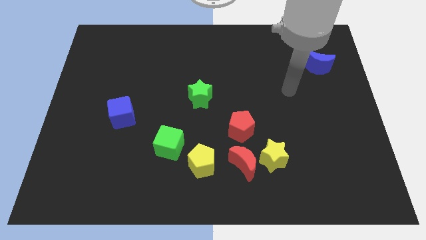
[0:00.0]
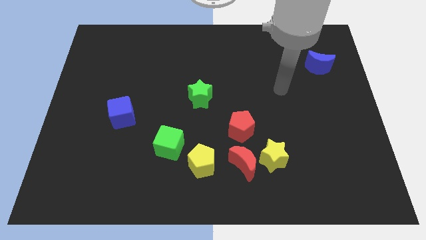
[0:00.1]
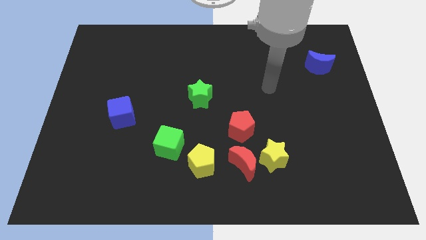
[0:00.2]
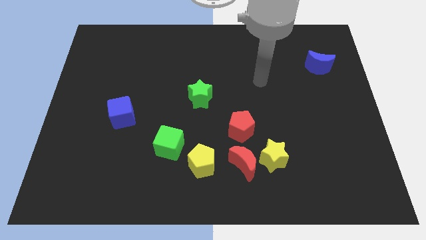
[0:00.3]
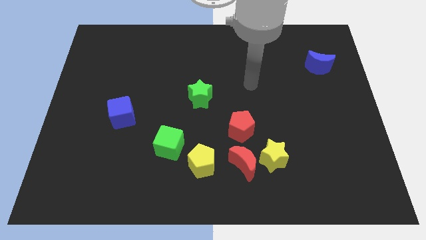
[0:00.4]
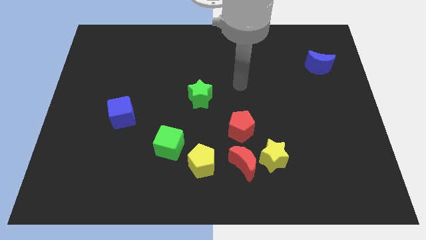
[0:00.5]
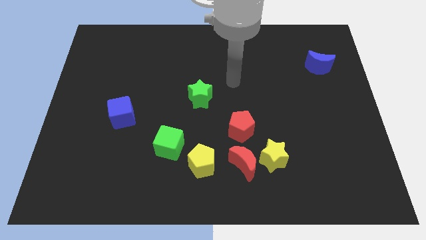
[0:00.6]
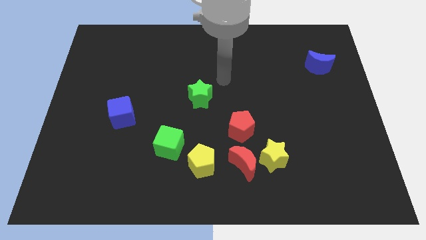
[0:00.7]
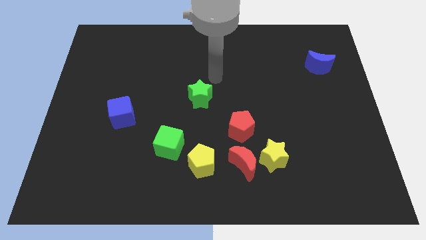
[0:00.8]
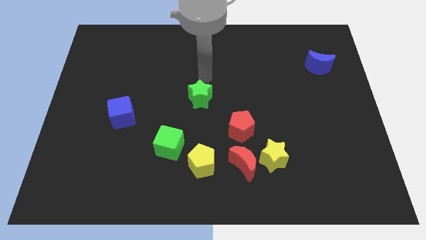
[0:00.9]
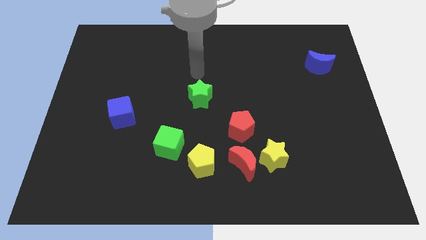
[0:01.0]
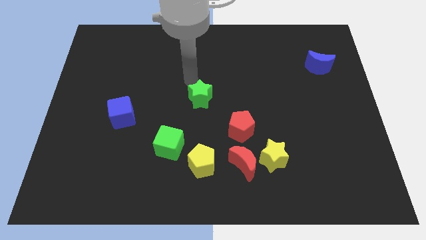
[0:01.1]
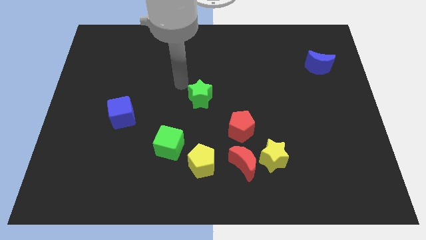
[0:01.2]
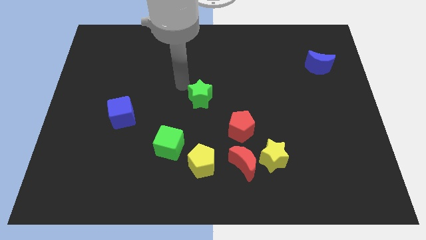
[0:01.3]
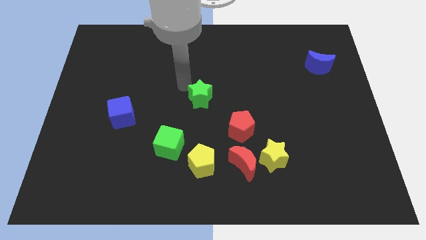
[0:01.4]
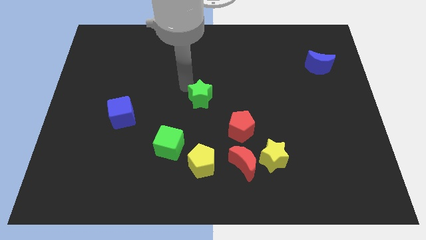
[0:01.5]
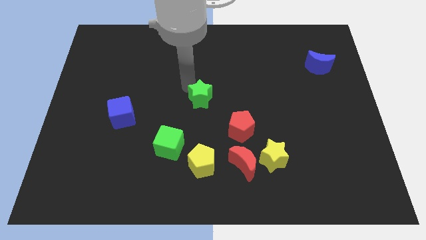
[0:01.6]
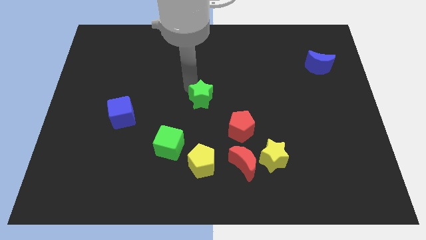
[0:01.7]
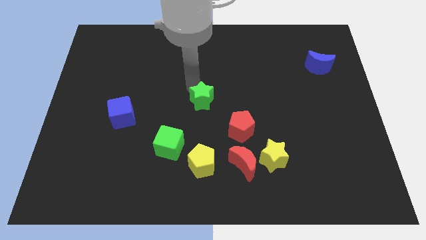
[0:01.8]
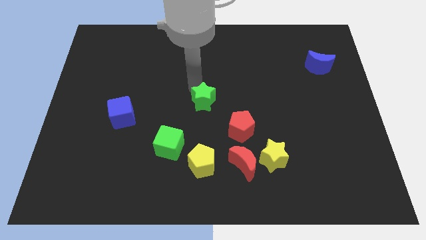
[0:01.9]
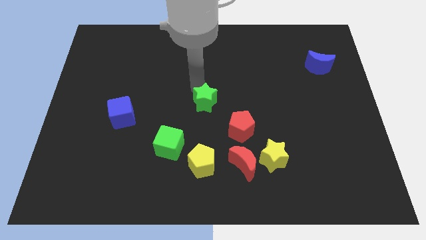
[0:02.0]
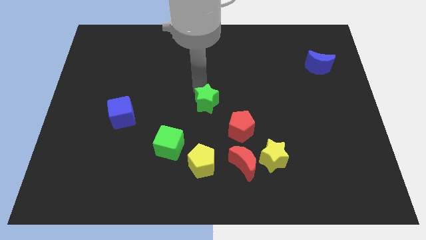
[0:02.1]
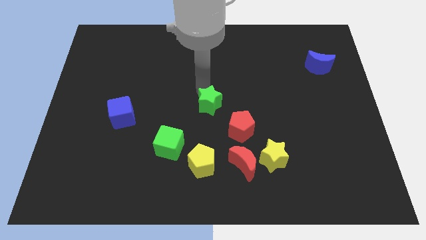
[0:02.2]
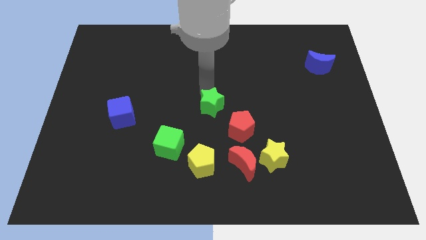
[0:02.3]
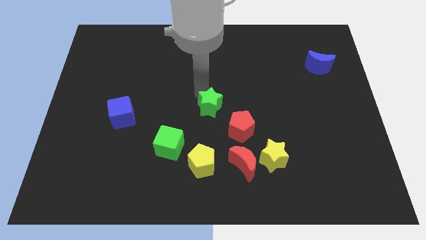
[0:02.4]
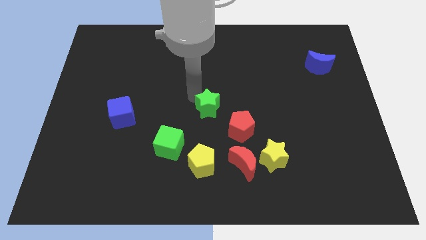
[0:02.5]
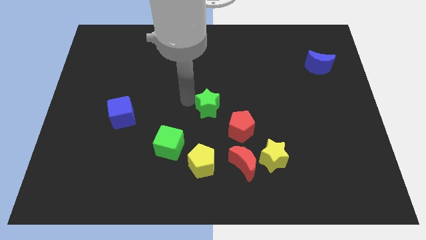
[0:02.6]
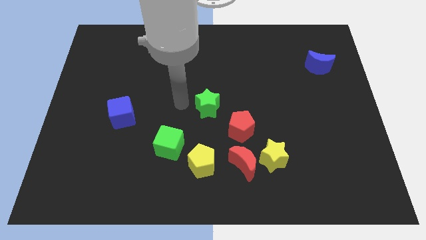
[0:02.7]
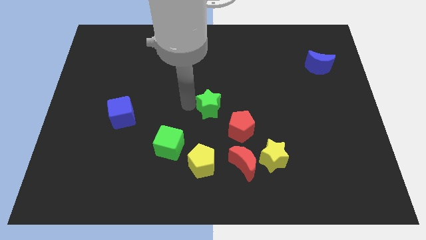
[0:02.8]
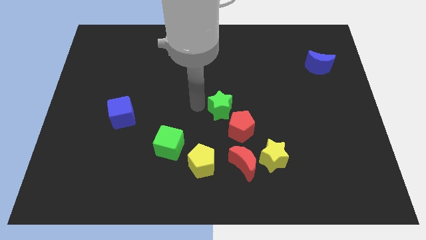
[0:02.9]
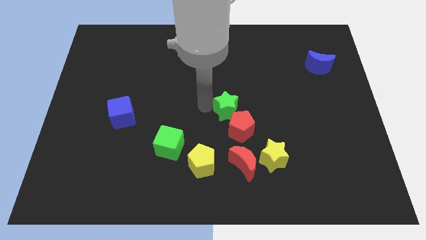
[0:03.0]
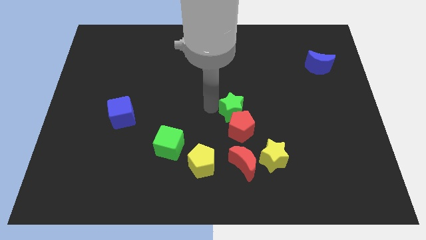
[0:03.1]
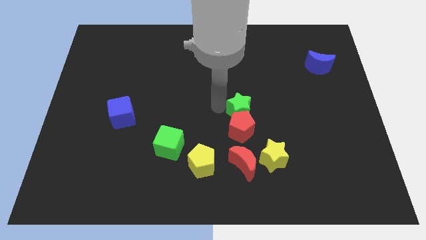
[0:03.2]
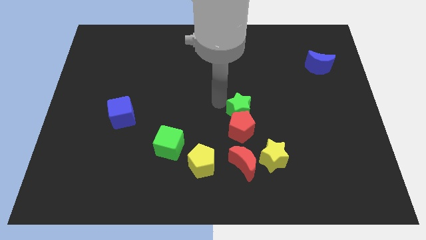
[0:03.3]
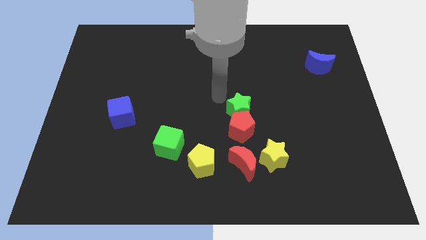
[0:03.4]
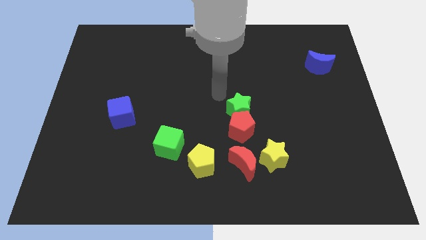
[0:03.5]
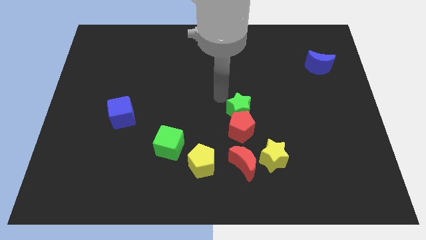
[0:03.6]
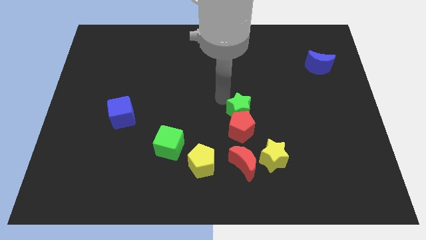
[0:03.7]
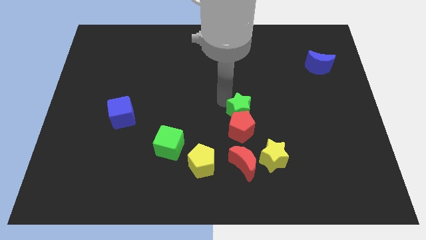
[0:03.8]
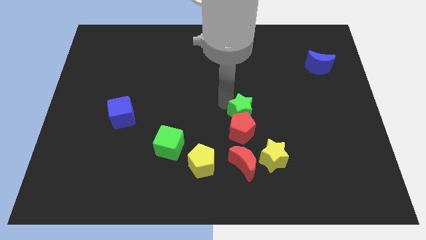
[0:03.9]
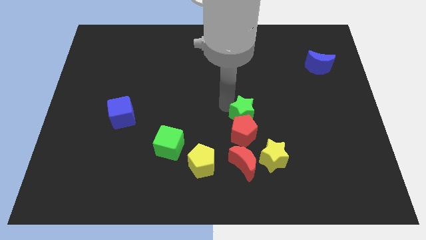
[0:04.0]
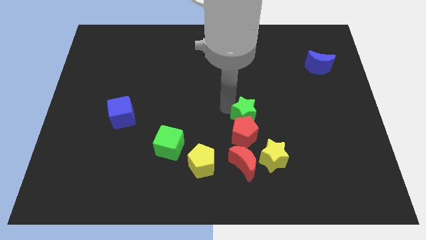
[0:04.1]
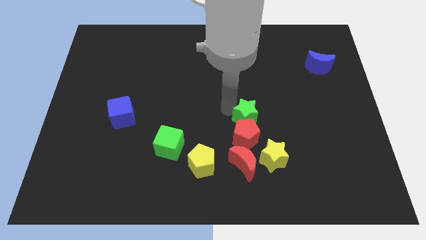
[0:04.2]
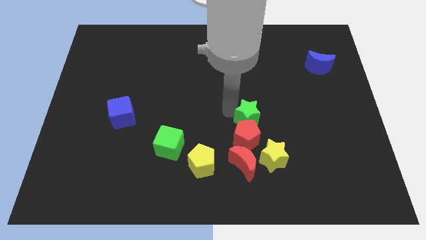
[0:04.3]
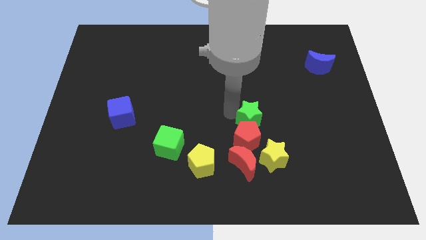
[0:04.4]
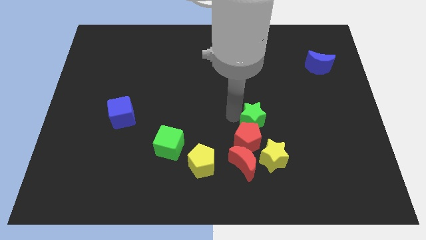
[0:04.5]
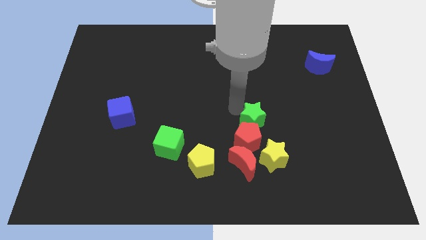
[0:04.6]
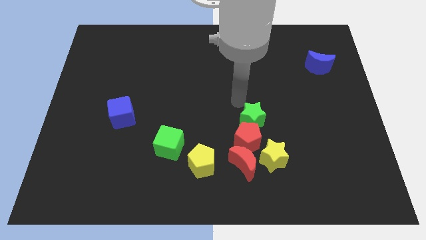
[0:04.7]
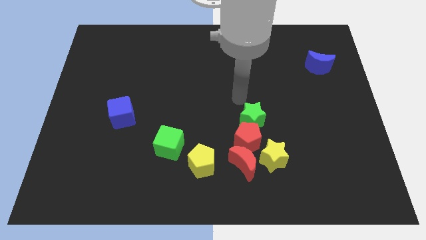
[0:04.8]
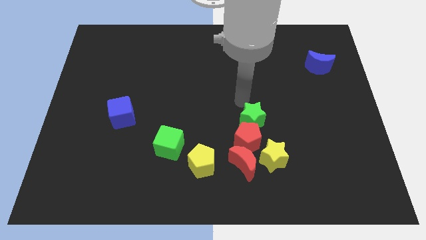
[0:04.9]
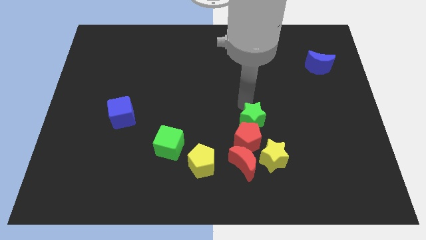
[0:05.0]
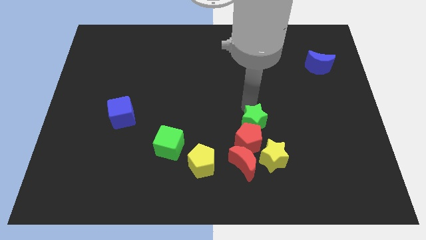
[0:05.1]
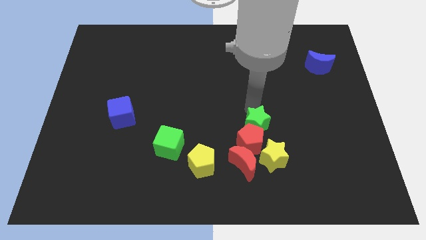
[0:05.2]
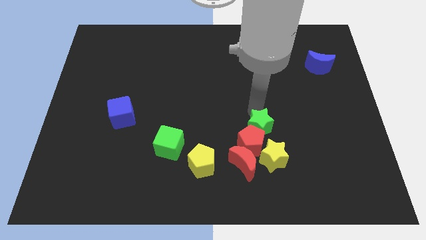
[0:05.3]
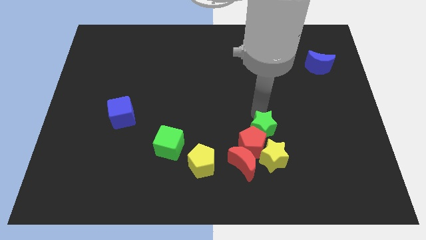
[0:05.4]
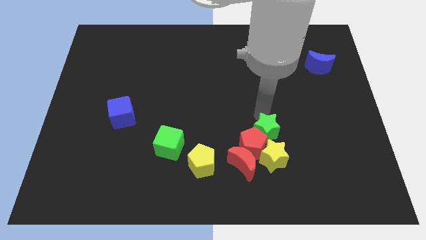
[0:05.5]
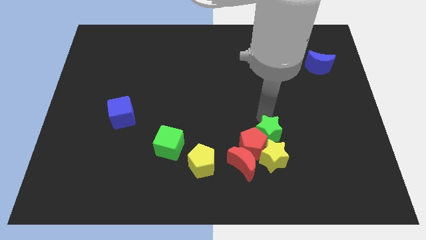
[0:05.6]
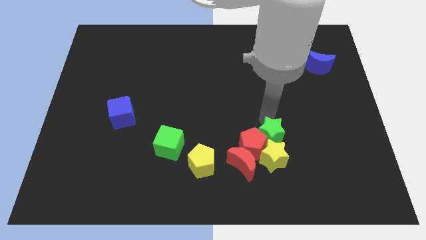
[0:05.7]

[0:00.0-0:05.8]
move the green star next to the yellow star

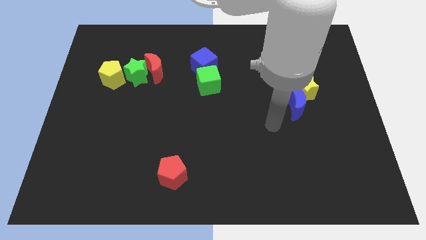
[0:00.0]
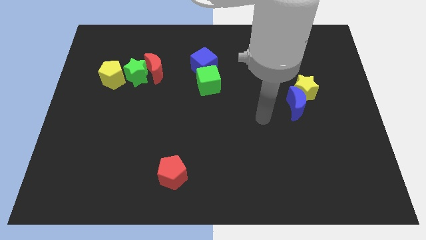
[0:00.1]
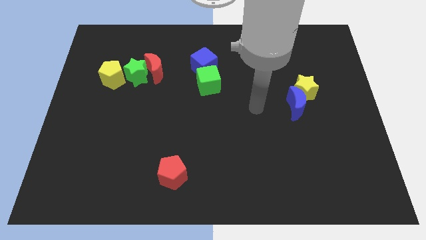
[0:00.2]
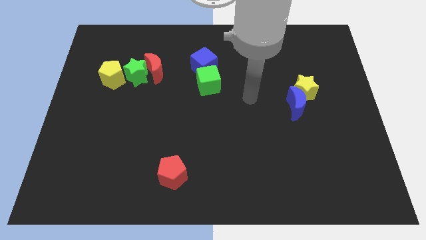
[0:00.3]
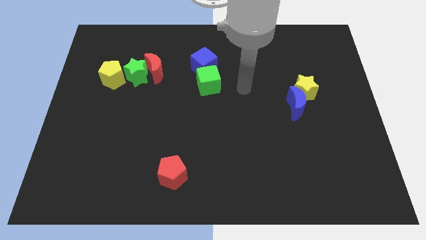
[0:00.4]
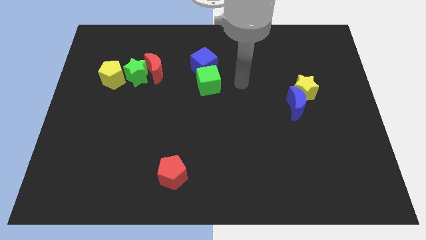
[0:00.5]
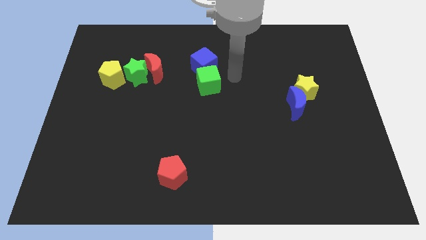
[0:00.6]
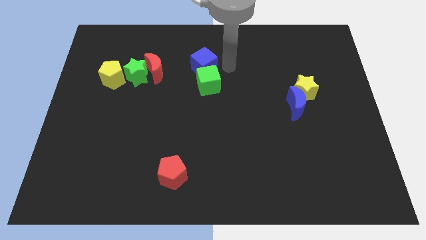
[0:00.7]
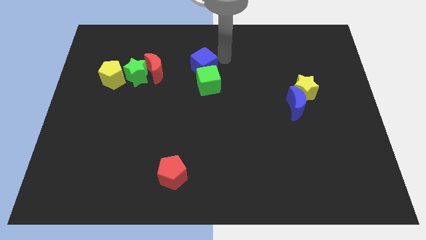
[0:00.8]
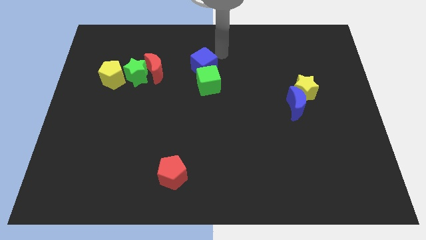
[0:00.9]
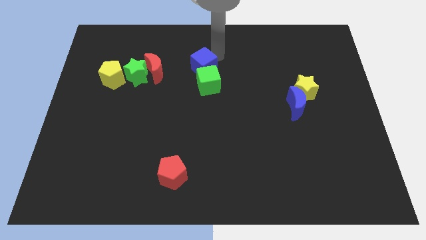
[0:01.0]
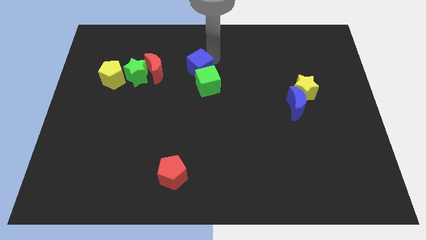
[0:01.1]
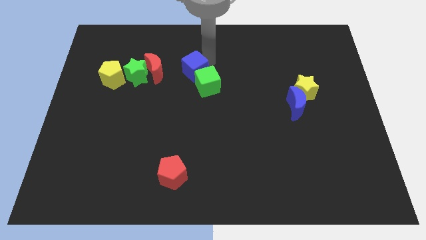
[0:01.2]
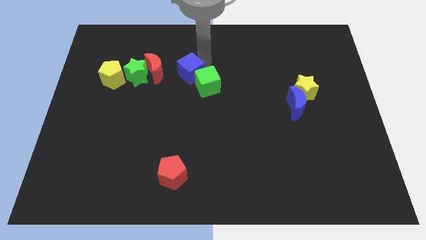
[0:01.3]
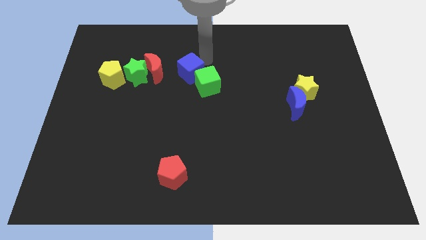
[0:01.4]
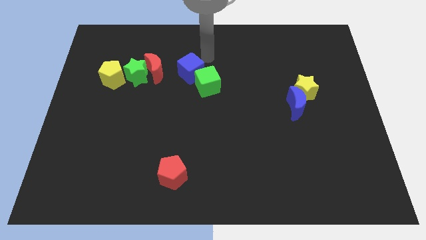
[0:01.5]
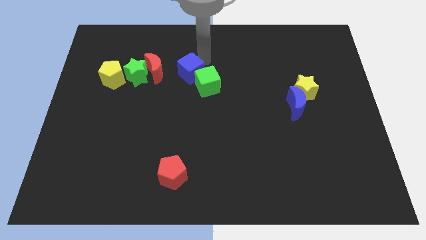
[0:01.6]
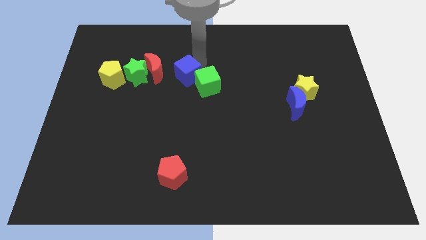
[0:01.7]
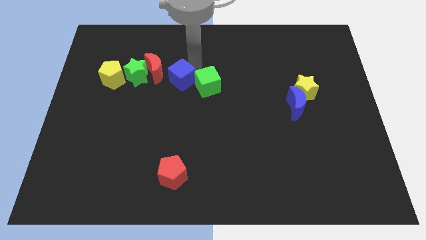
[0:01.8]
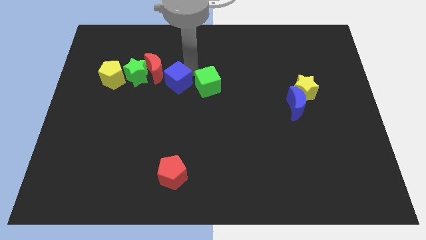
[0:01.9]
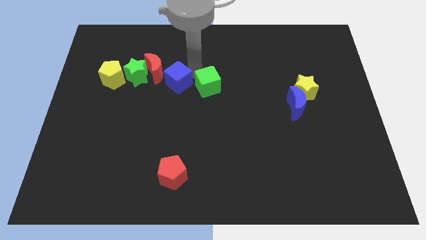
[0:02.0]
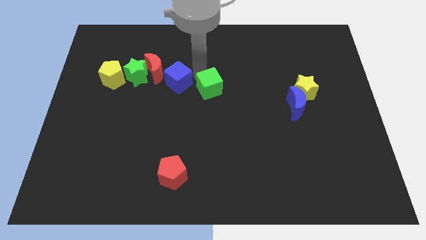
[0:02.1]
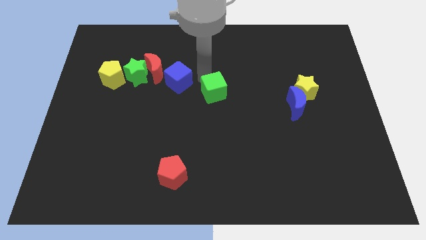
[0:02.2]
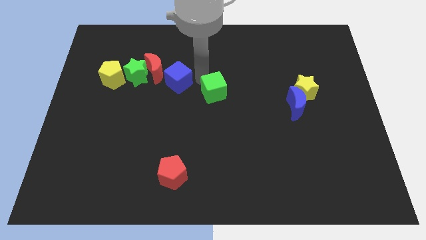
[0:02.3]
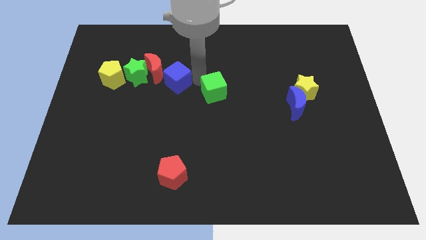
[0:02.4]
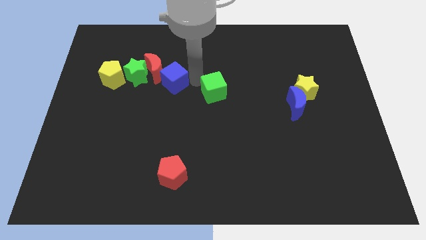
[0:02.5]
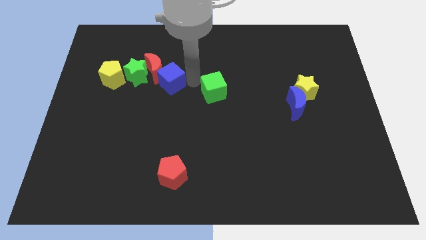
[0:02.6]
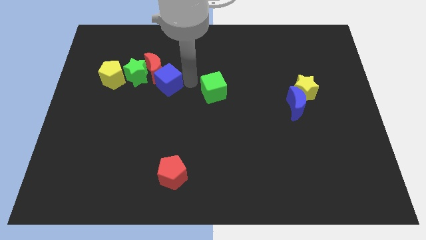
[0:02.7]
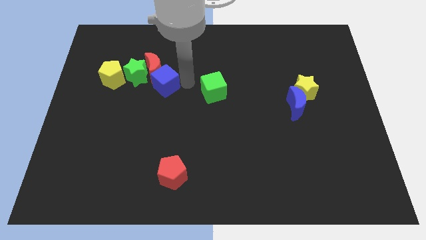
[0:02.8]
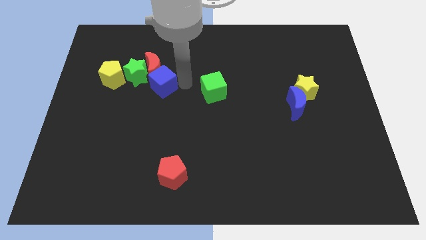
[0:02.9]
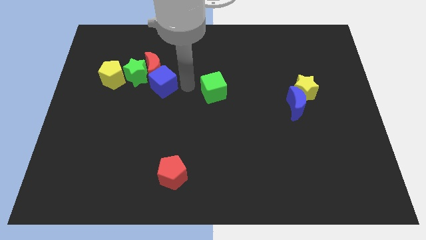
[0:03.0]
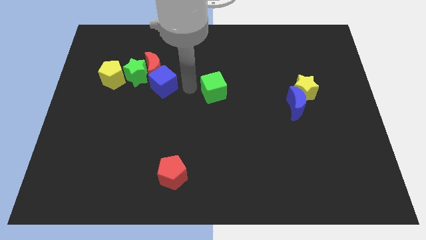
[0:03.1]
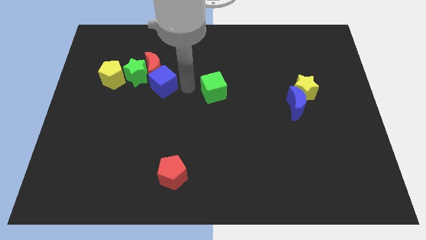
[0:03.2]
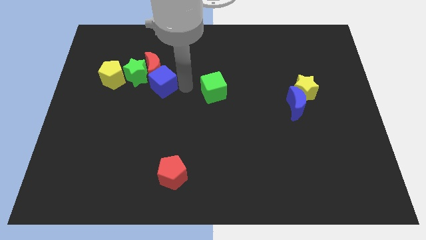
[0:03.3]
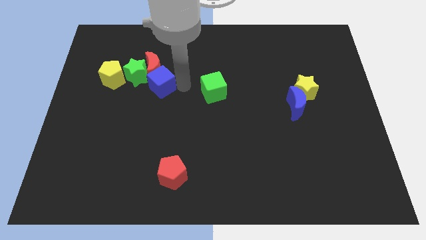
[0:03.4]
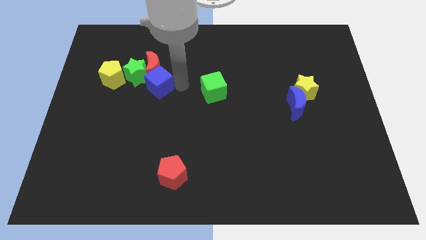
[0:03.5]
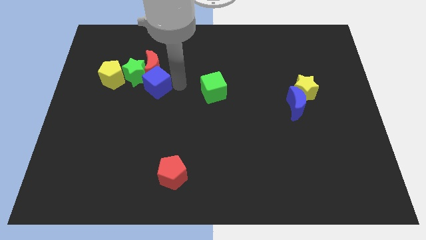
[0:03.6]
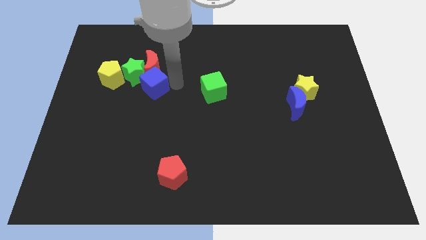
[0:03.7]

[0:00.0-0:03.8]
put the blue cube towards the green star
